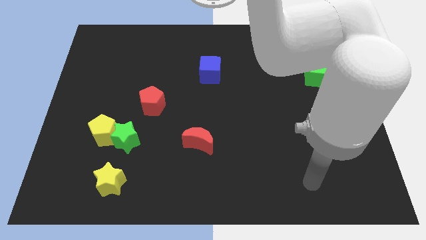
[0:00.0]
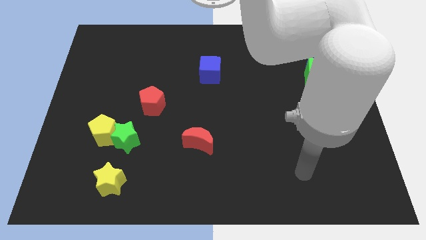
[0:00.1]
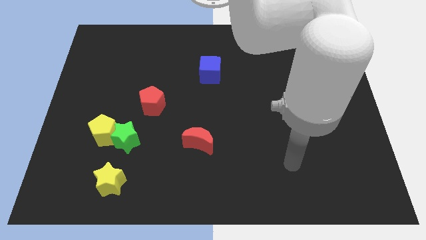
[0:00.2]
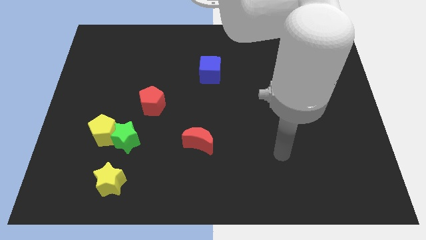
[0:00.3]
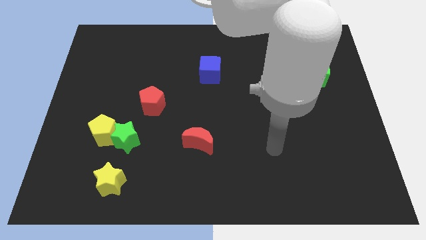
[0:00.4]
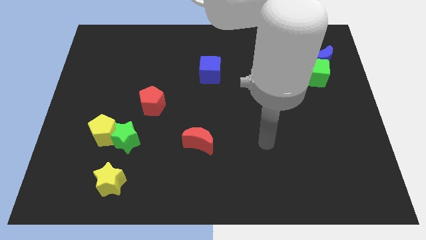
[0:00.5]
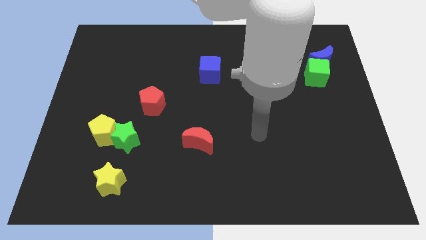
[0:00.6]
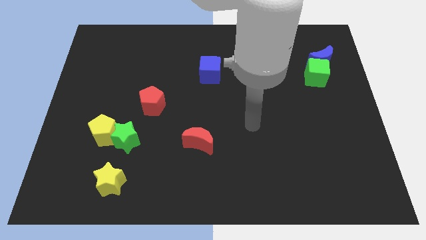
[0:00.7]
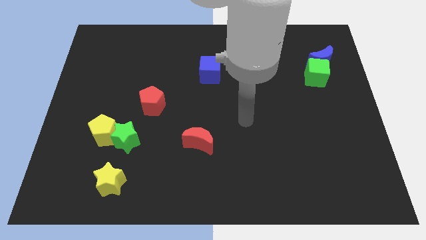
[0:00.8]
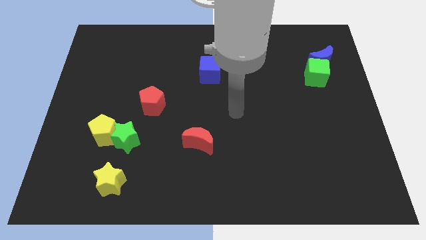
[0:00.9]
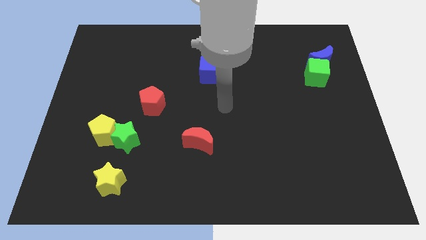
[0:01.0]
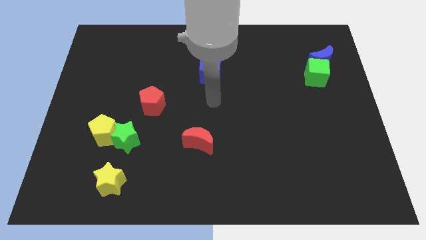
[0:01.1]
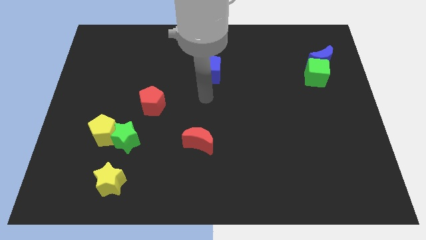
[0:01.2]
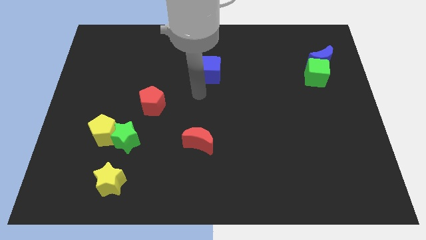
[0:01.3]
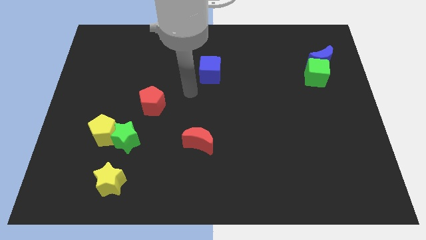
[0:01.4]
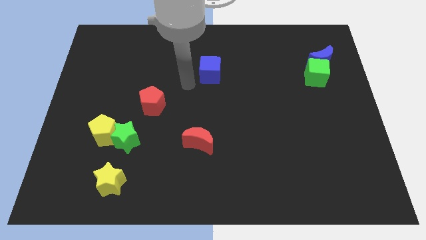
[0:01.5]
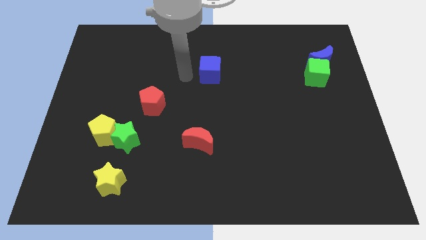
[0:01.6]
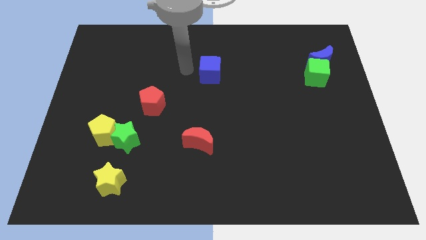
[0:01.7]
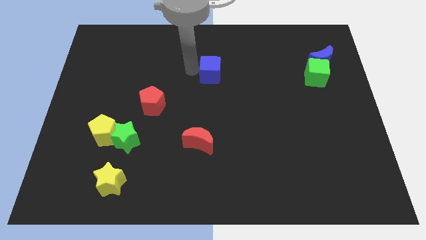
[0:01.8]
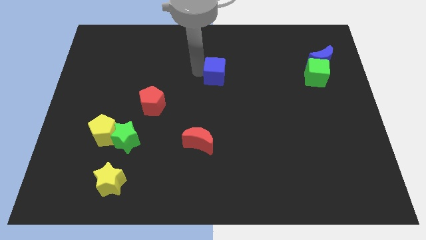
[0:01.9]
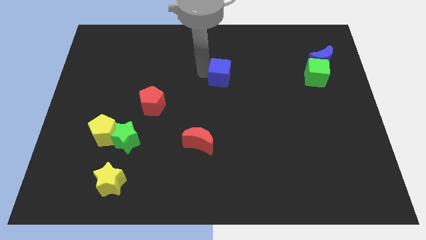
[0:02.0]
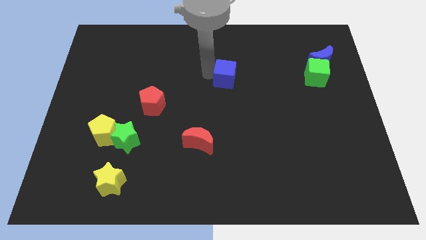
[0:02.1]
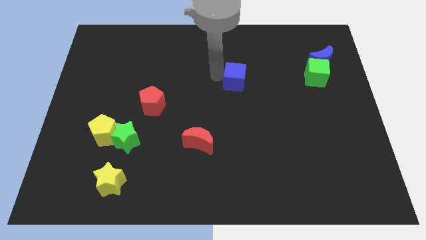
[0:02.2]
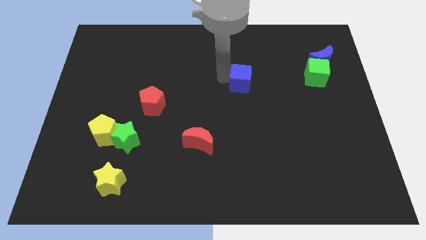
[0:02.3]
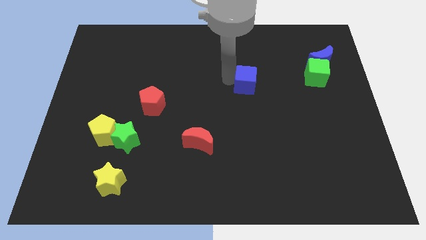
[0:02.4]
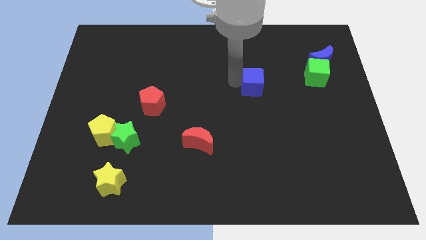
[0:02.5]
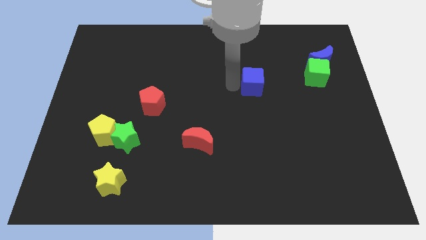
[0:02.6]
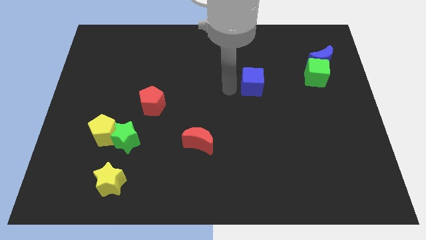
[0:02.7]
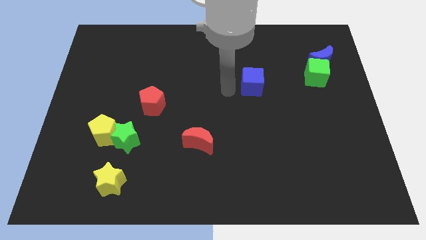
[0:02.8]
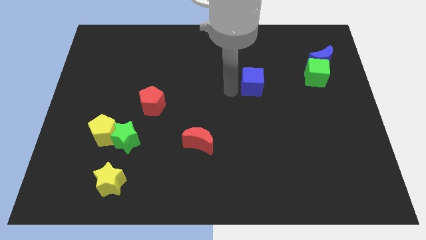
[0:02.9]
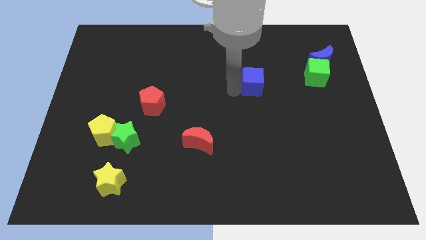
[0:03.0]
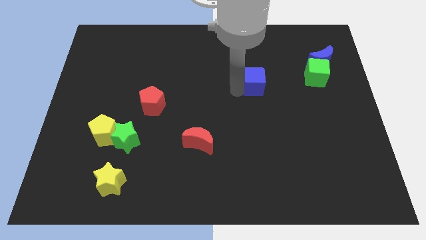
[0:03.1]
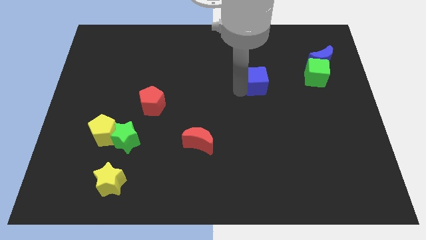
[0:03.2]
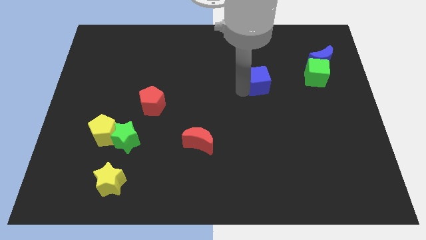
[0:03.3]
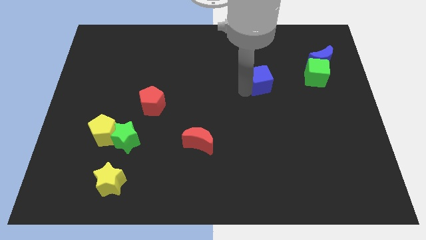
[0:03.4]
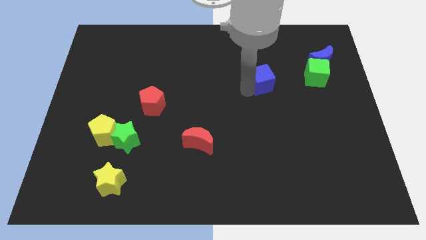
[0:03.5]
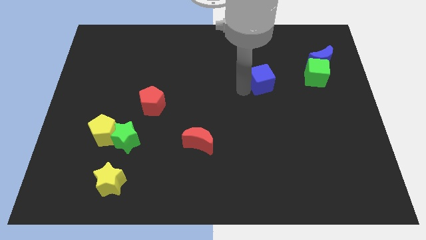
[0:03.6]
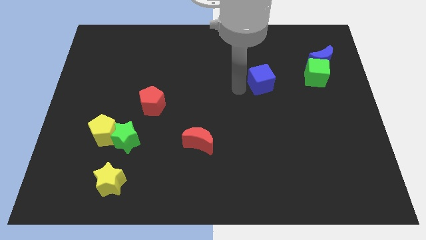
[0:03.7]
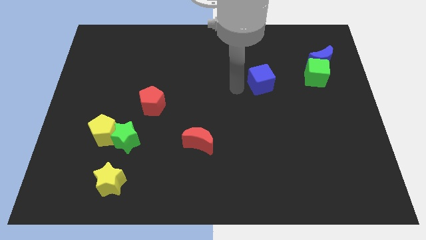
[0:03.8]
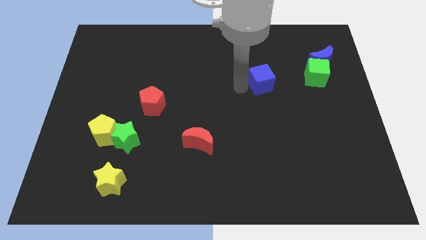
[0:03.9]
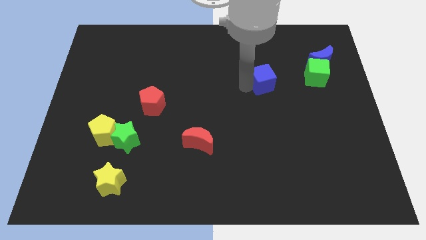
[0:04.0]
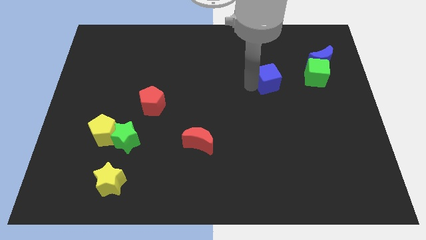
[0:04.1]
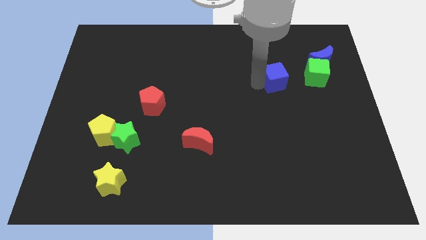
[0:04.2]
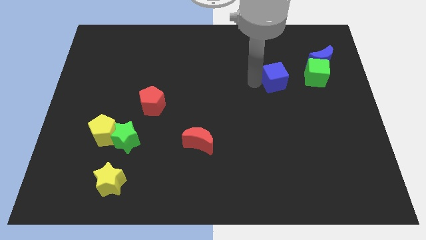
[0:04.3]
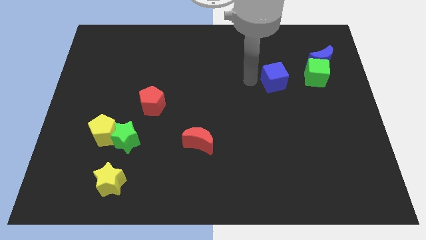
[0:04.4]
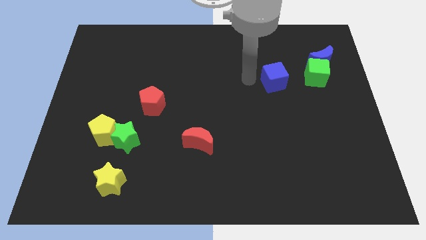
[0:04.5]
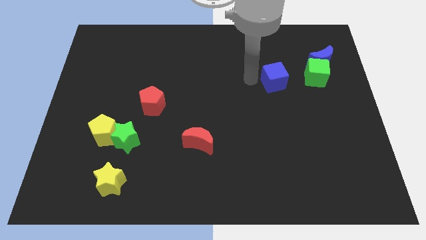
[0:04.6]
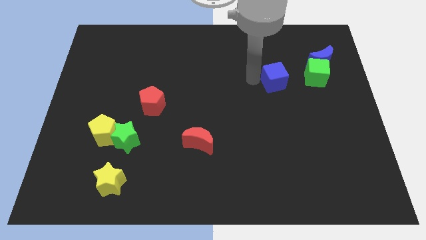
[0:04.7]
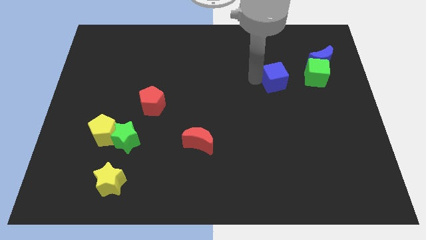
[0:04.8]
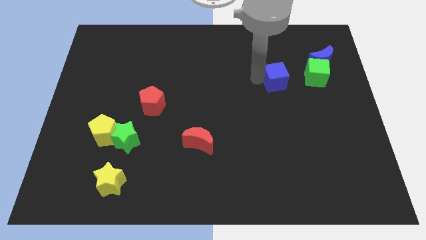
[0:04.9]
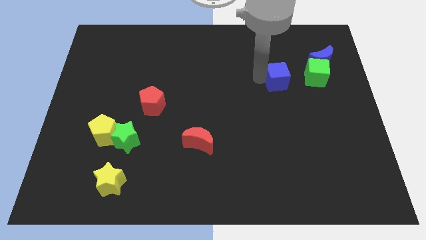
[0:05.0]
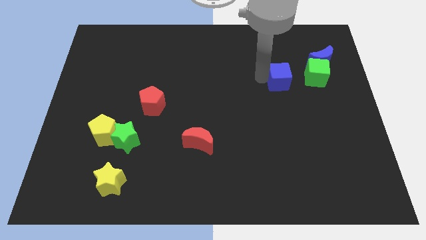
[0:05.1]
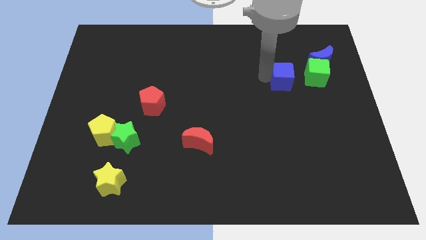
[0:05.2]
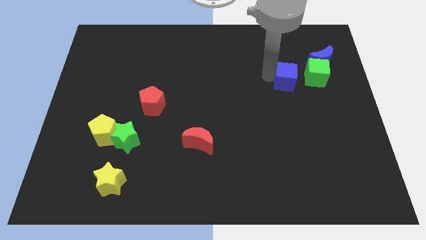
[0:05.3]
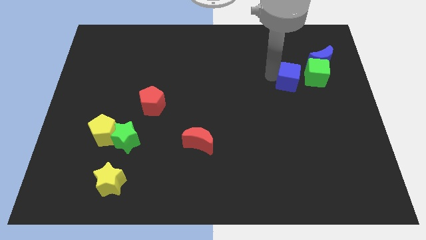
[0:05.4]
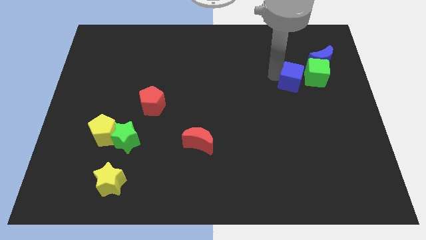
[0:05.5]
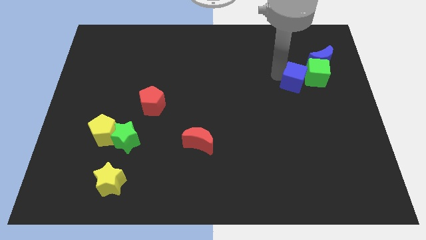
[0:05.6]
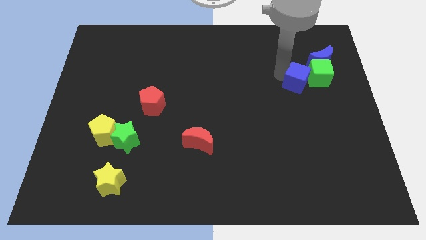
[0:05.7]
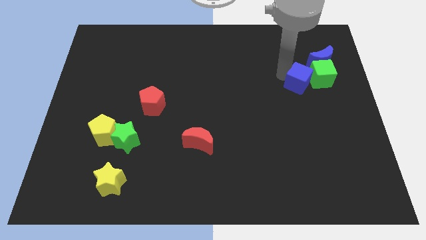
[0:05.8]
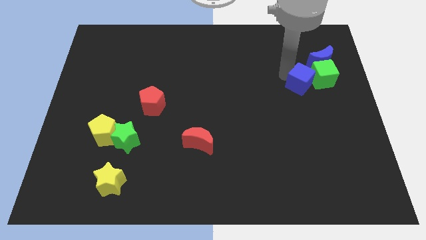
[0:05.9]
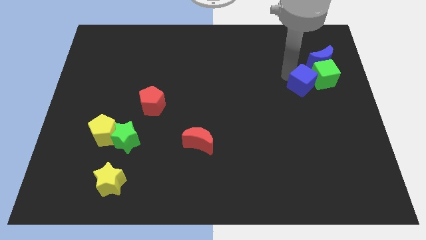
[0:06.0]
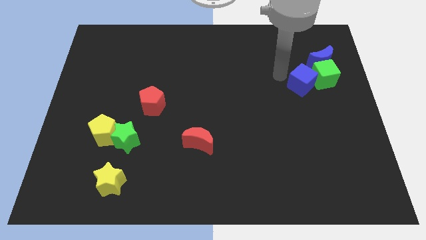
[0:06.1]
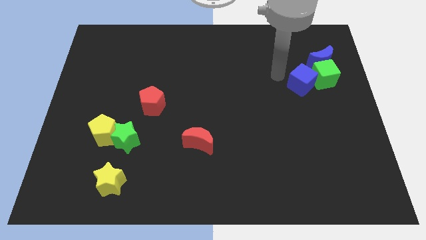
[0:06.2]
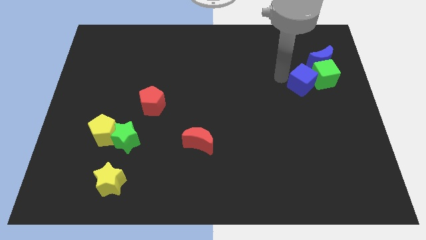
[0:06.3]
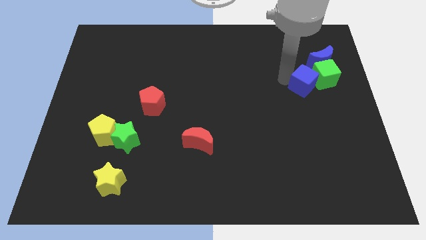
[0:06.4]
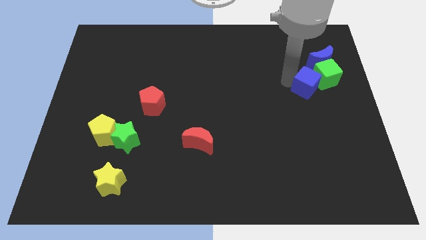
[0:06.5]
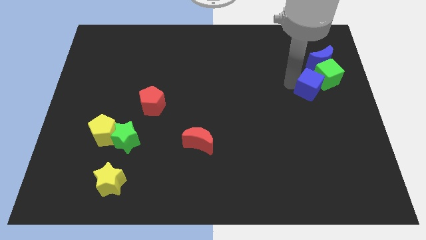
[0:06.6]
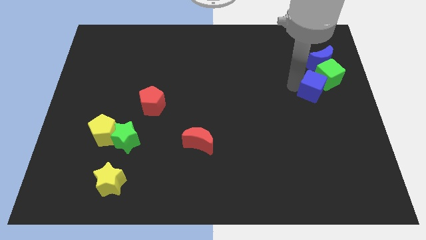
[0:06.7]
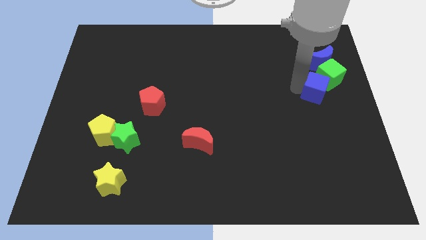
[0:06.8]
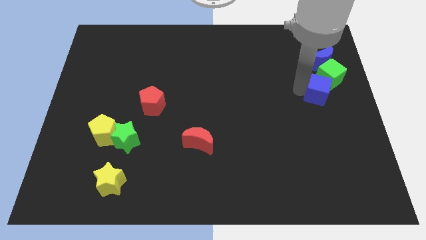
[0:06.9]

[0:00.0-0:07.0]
move the blue cube to the right side of the board
